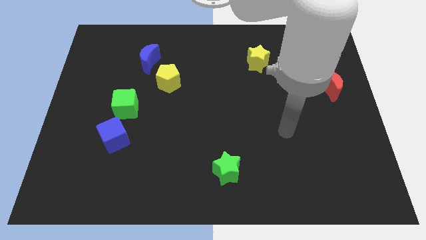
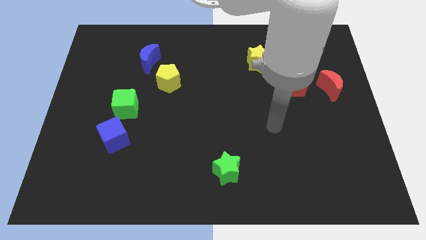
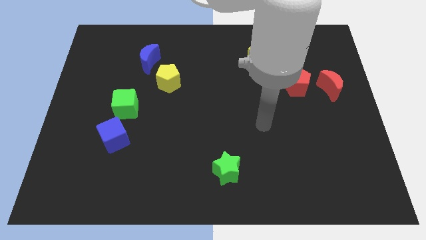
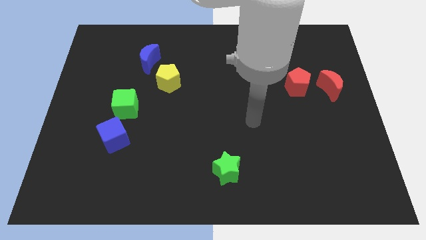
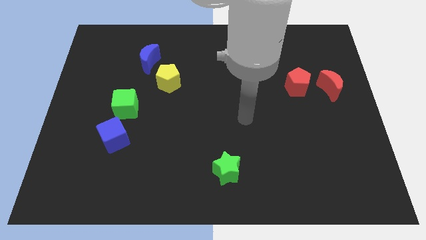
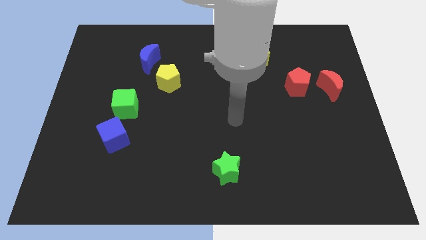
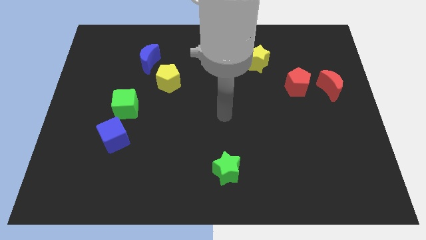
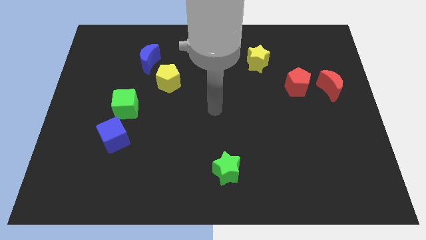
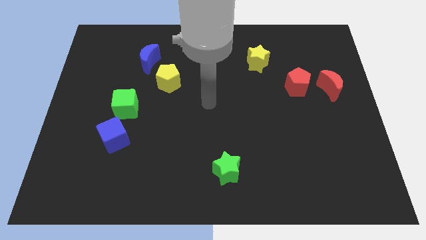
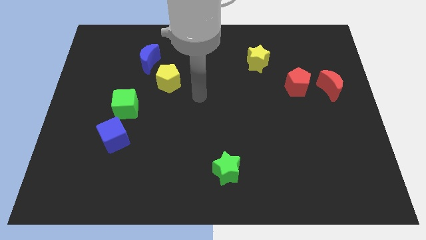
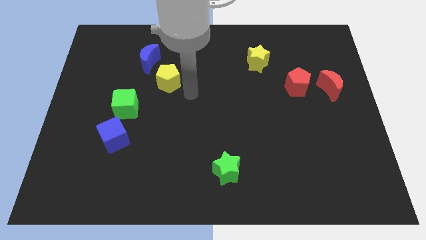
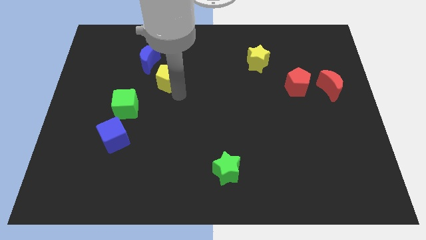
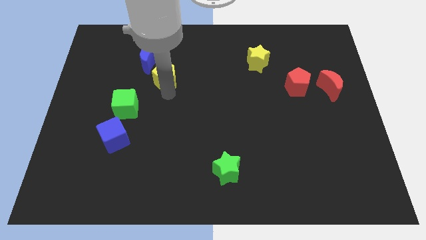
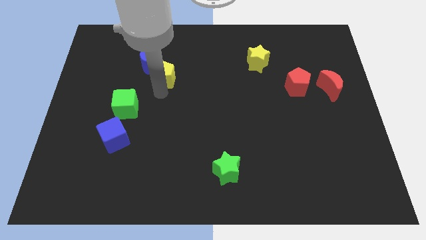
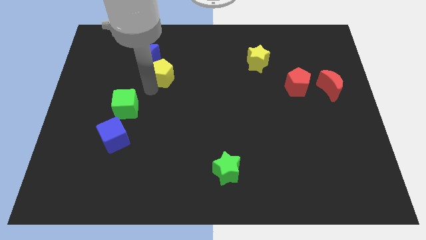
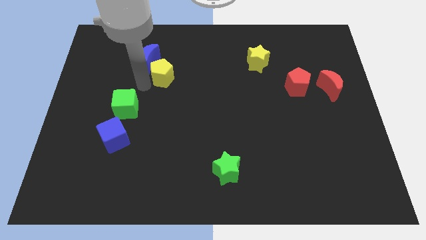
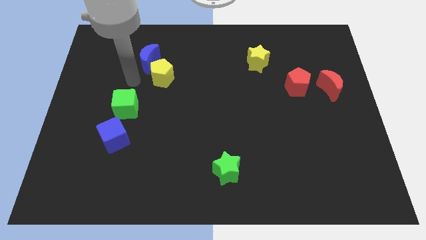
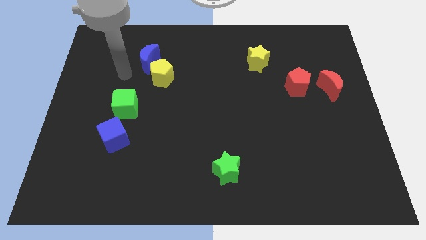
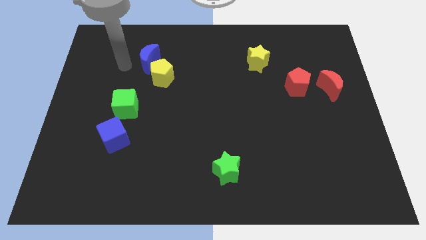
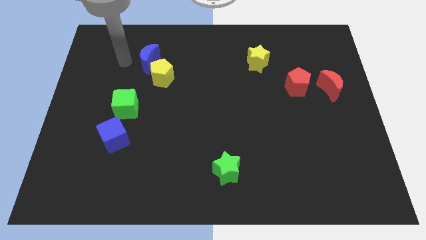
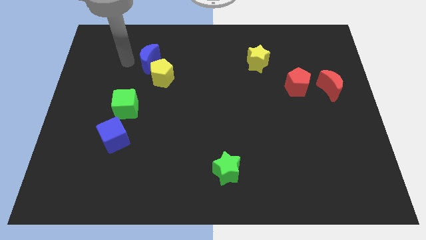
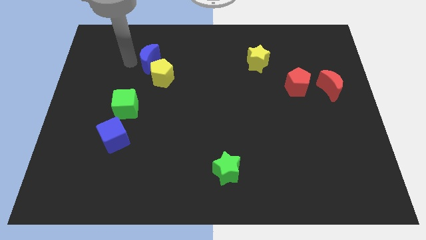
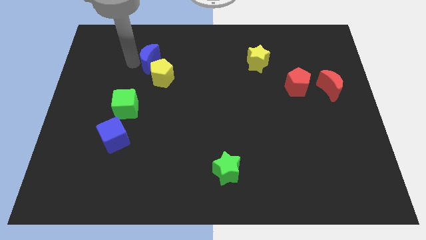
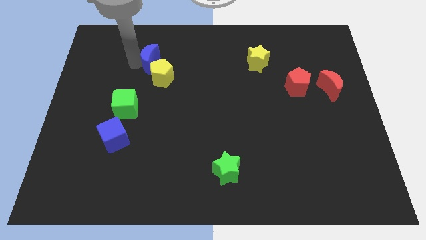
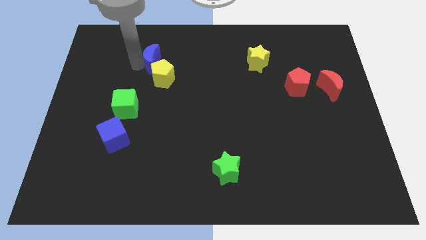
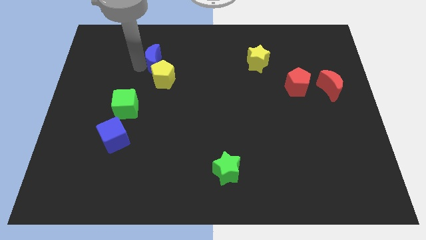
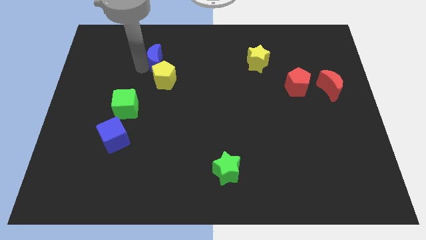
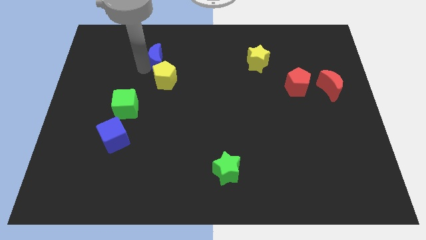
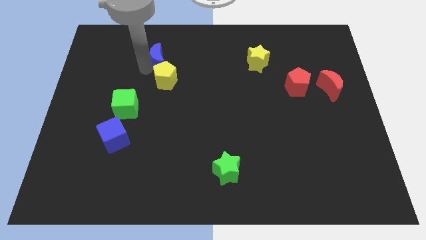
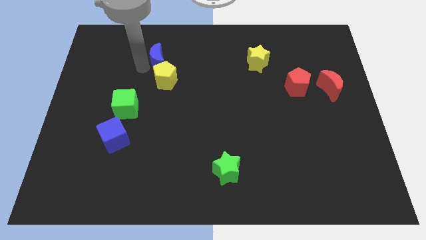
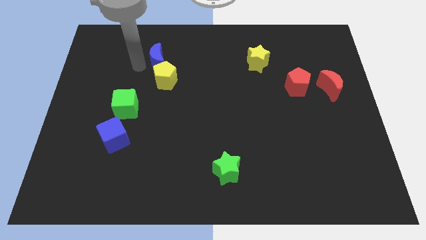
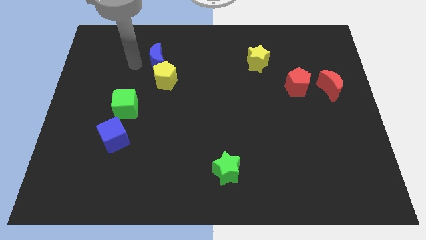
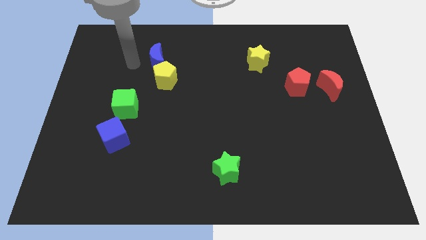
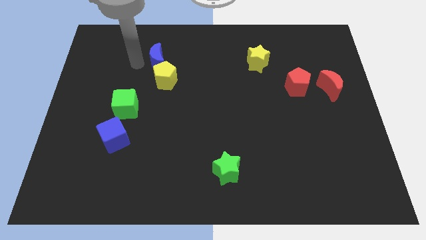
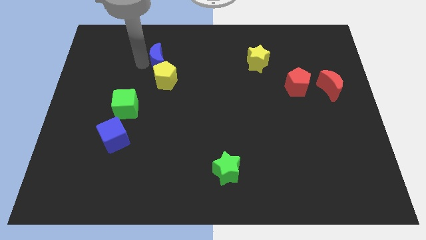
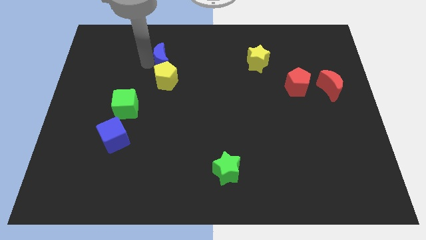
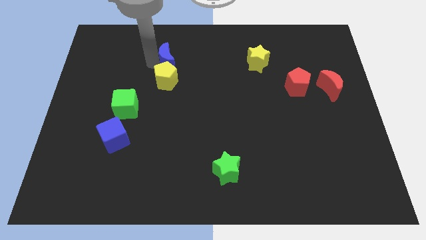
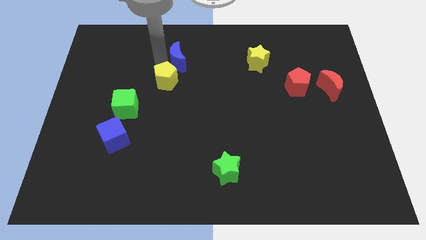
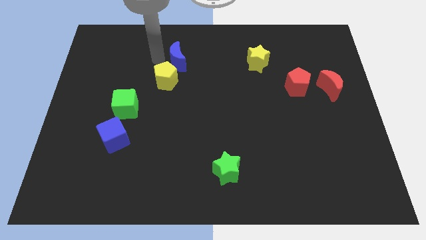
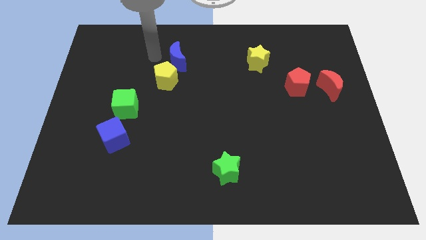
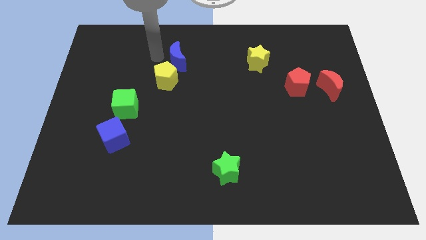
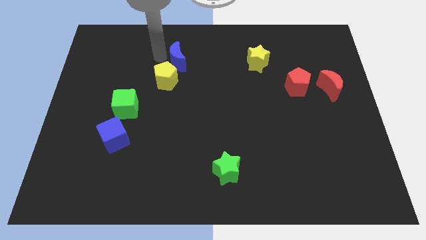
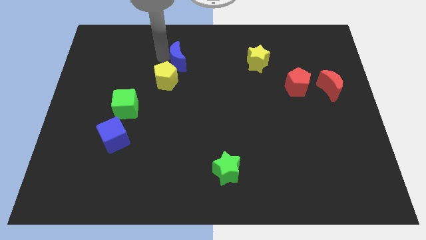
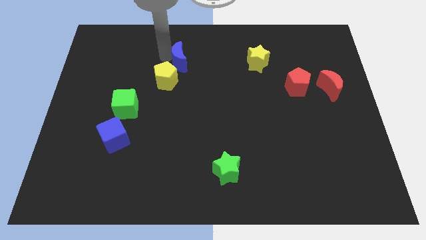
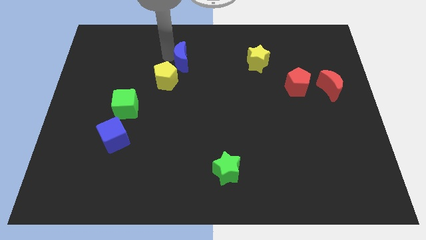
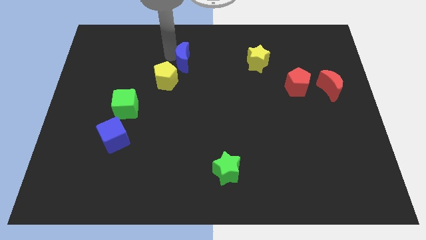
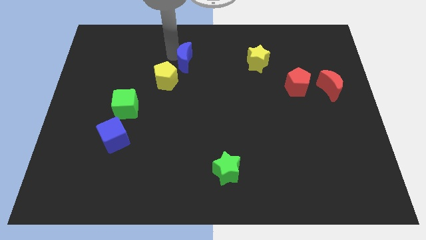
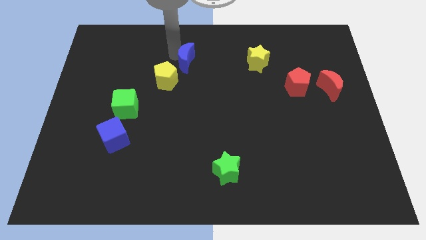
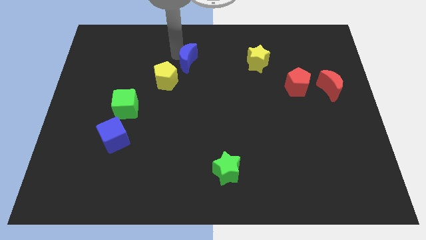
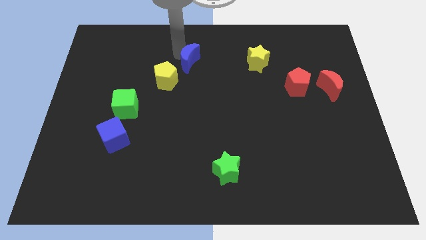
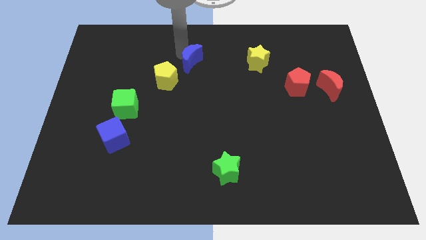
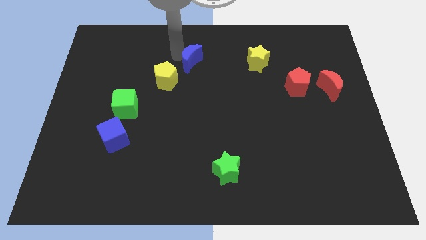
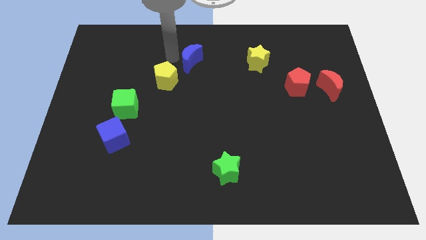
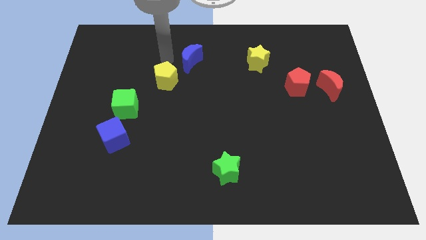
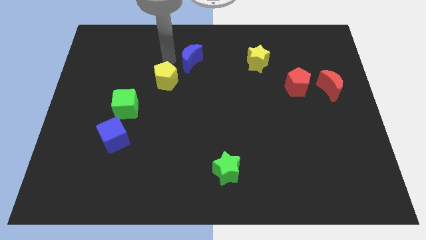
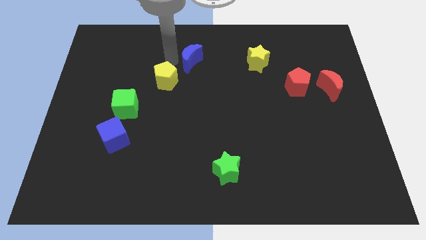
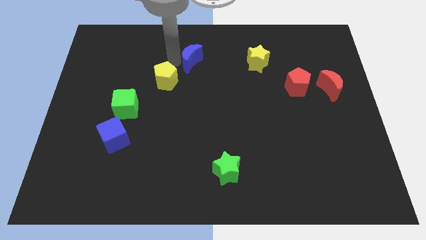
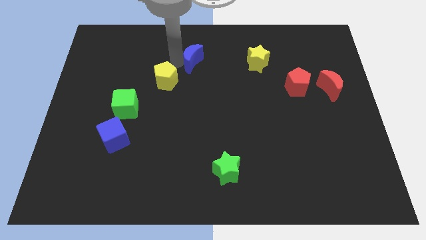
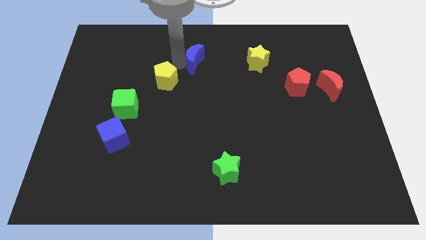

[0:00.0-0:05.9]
slide the blue moon to the left of the yellow star
